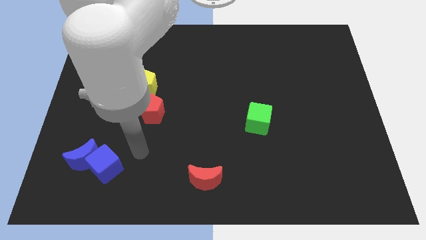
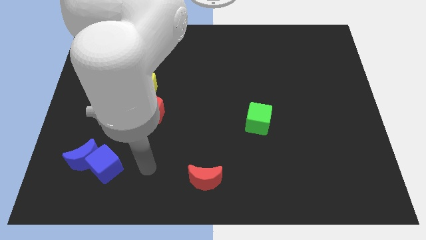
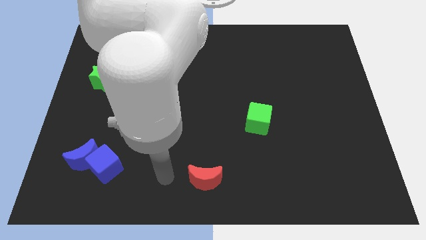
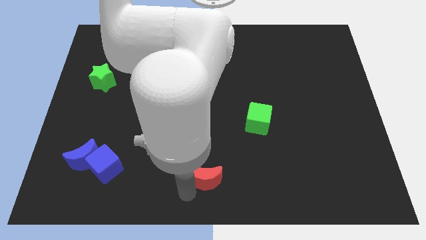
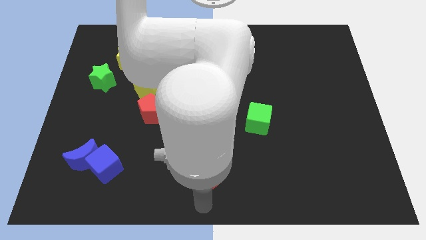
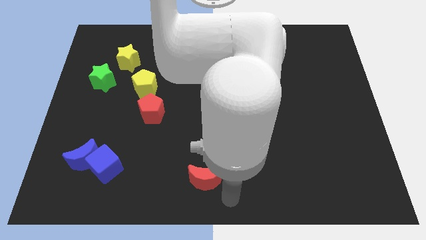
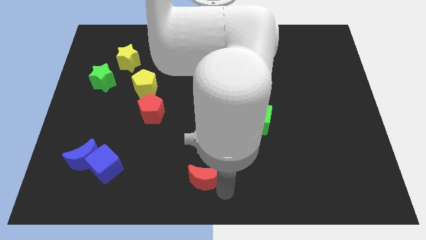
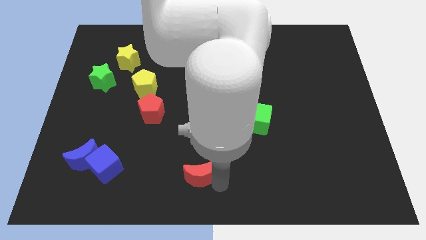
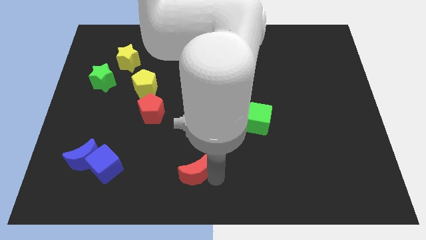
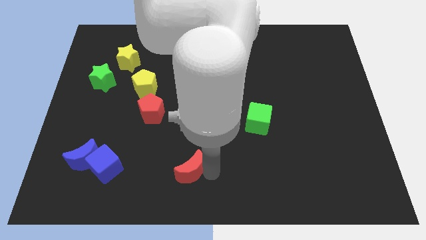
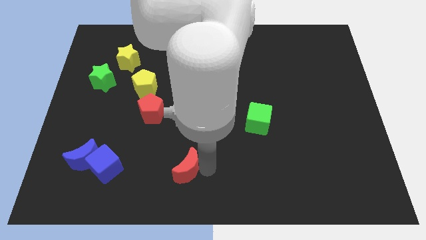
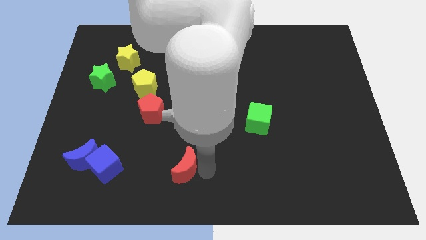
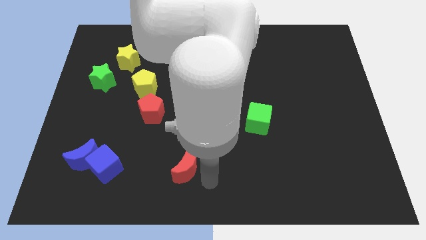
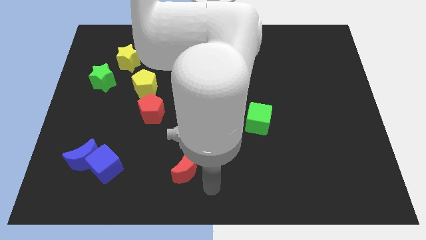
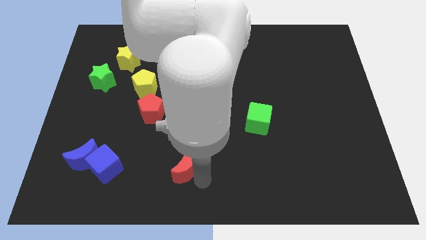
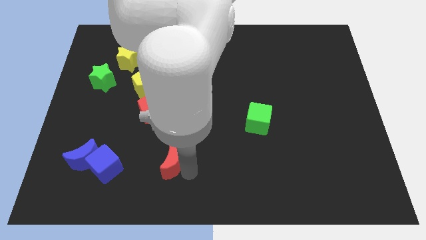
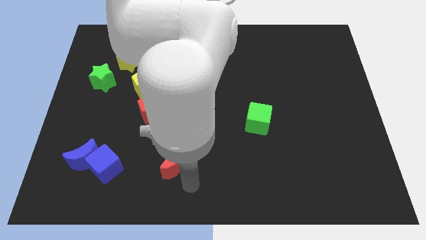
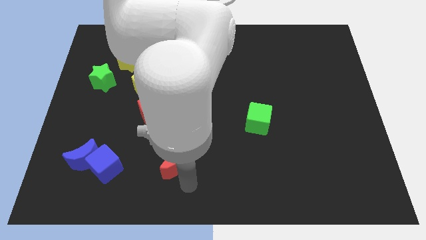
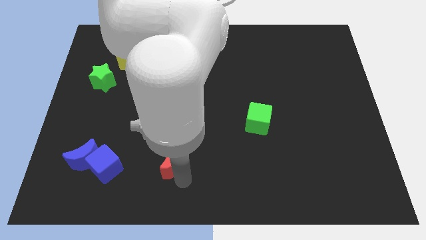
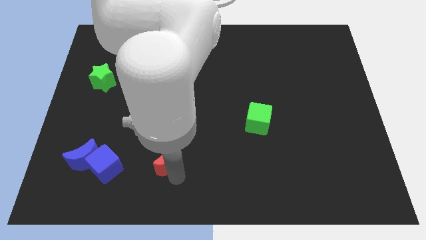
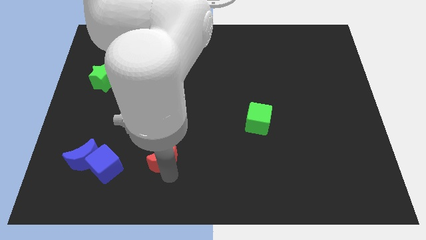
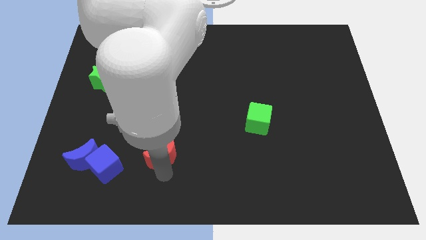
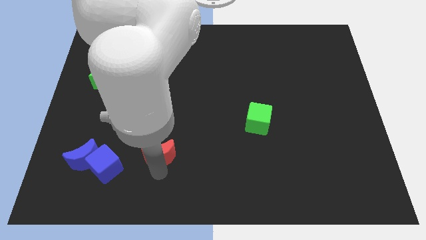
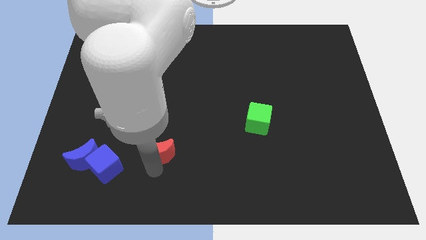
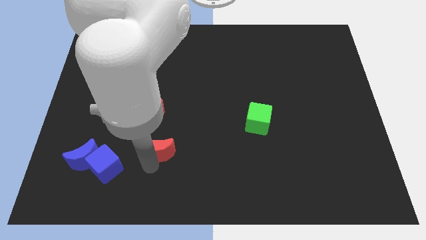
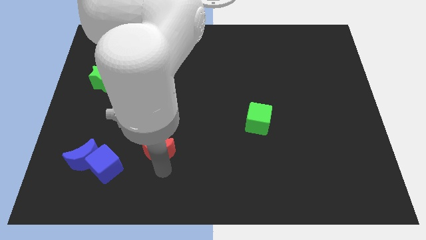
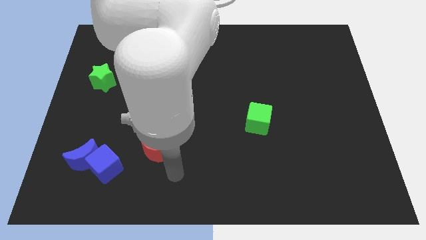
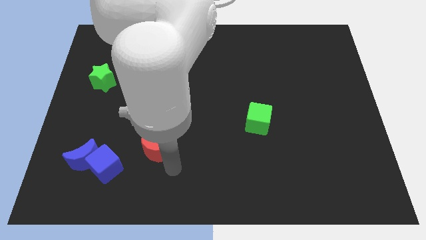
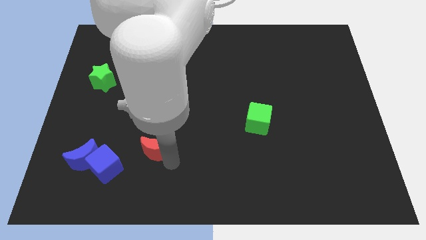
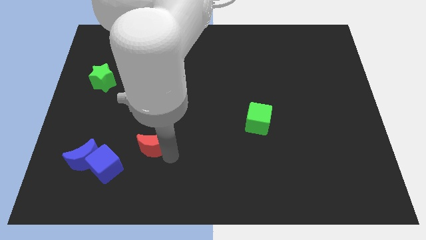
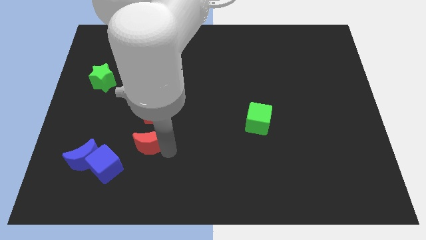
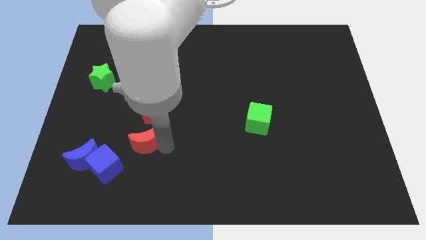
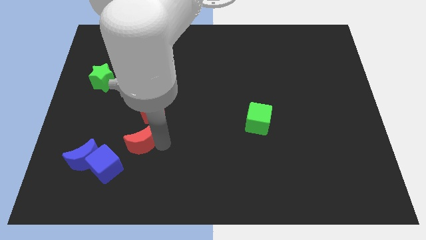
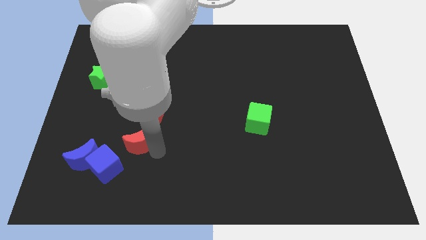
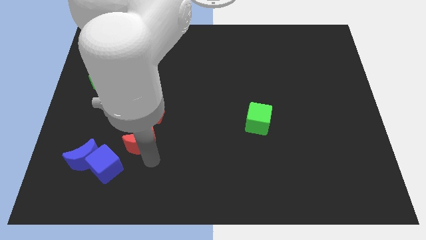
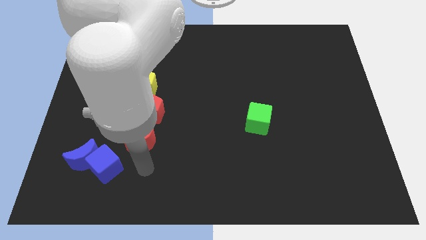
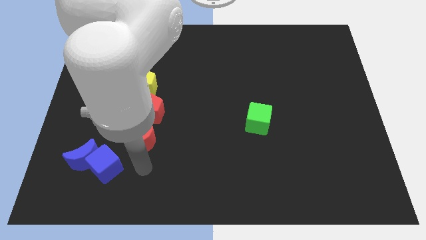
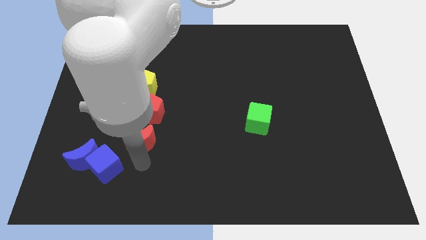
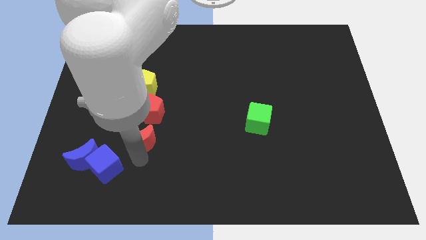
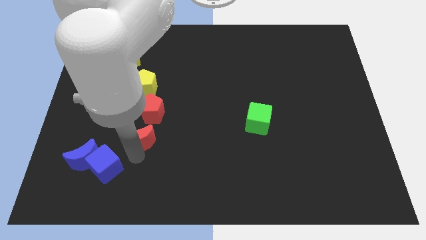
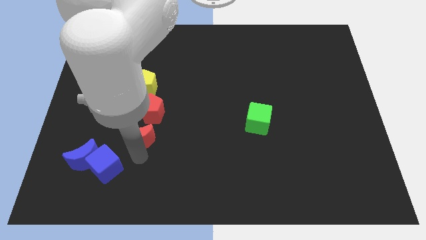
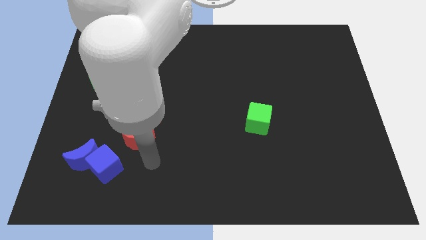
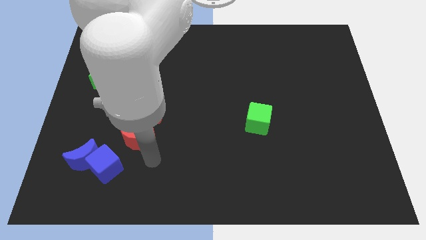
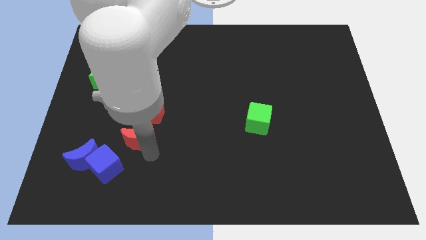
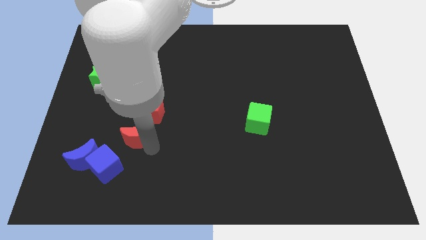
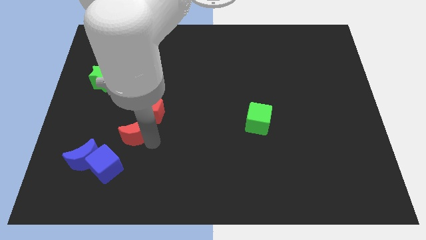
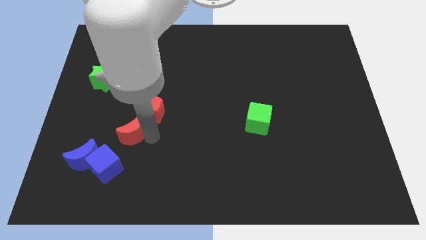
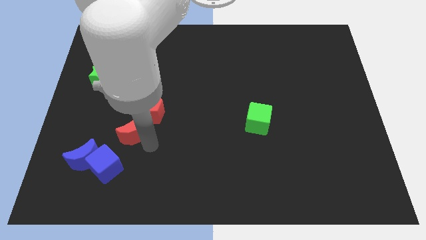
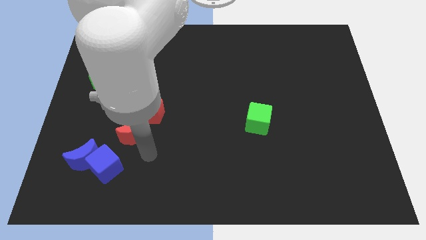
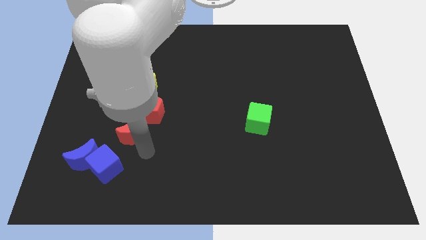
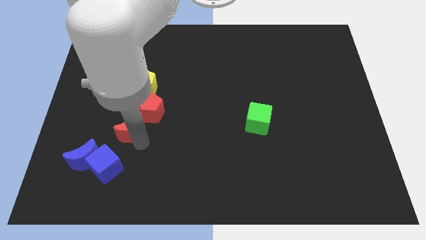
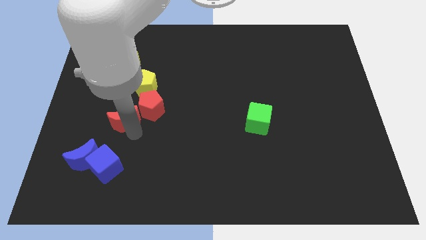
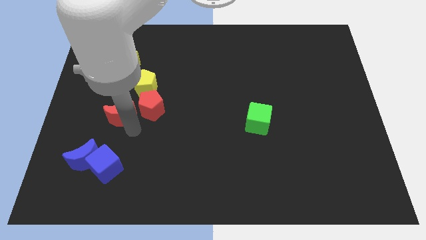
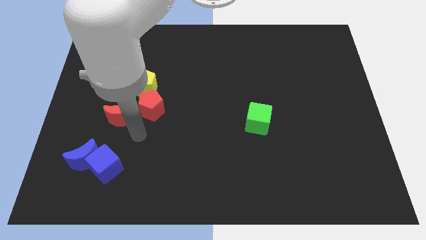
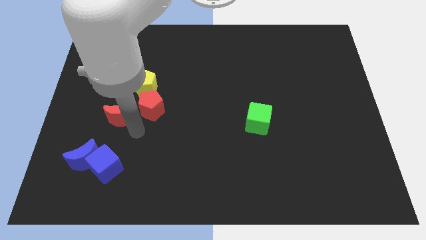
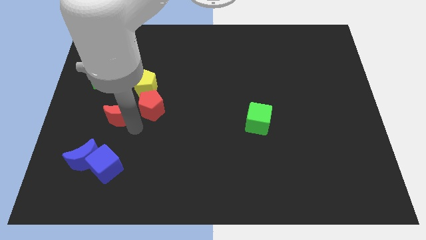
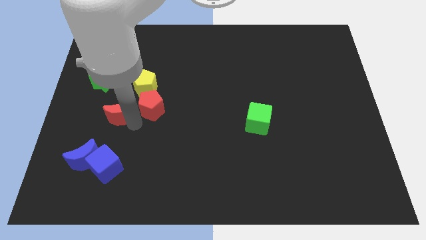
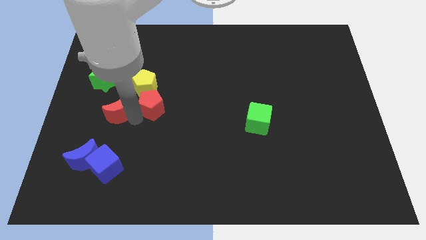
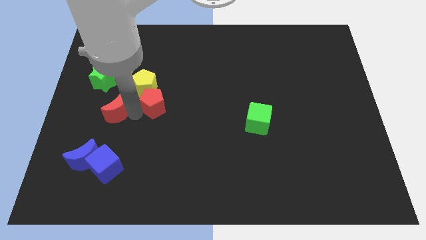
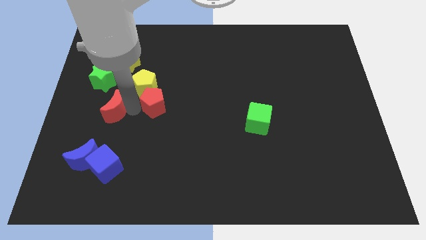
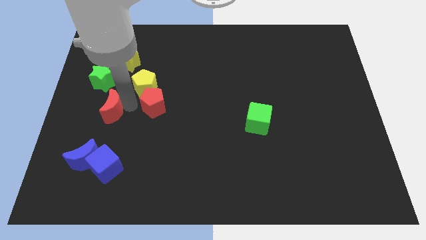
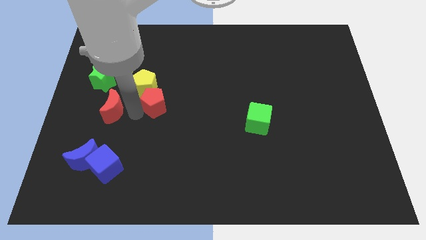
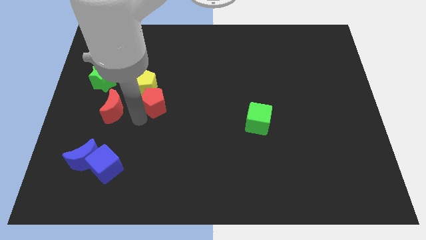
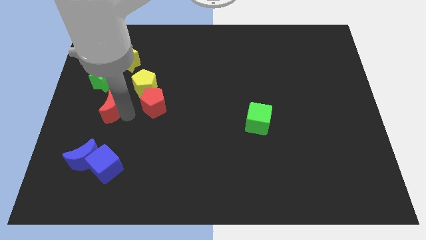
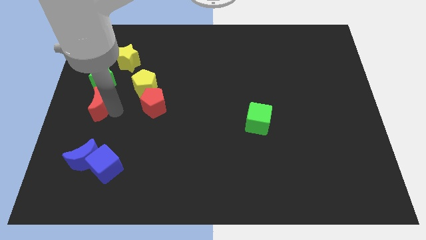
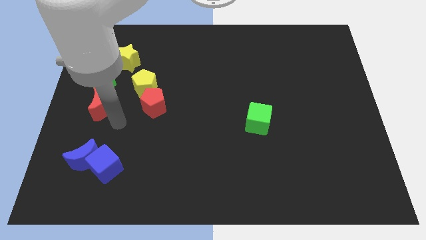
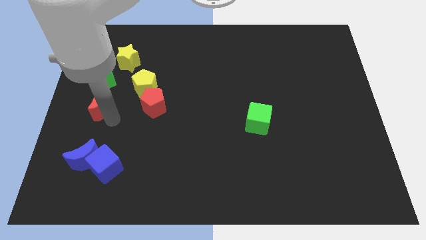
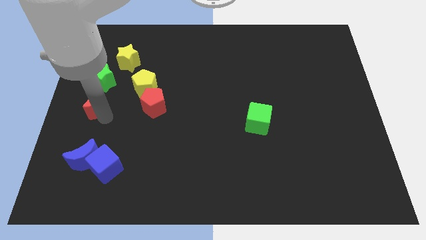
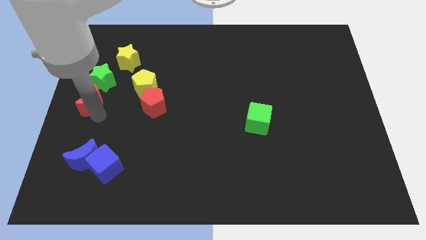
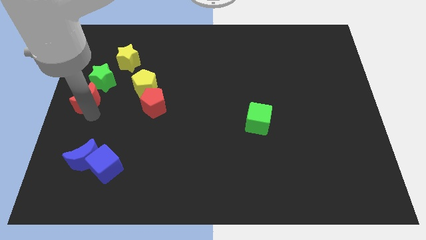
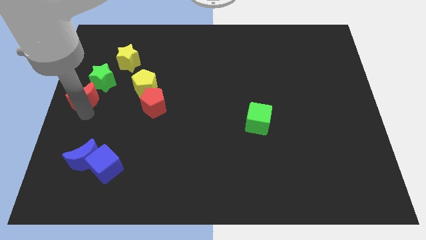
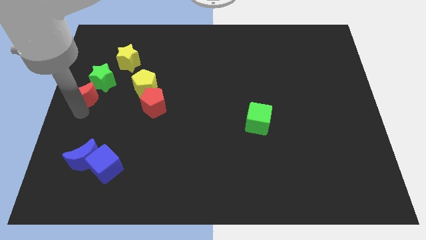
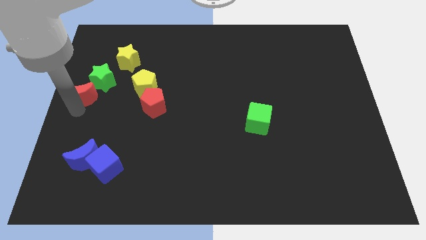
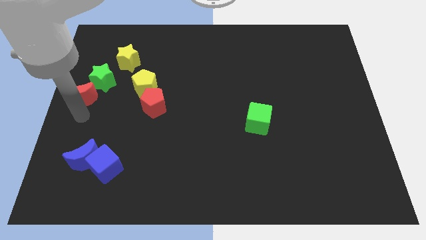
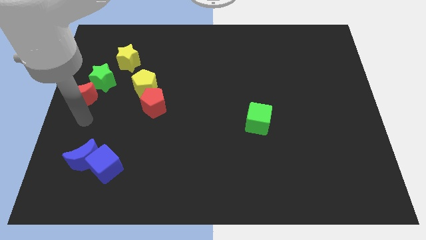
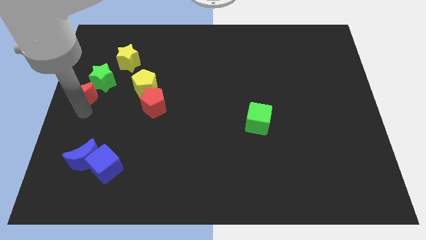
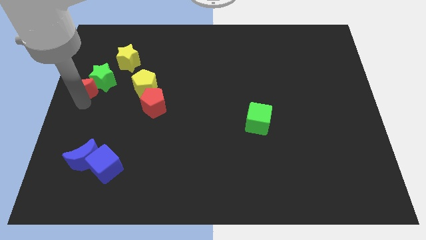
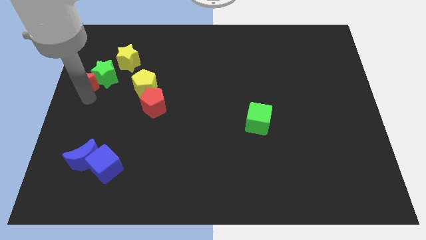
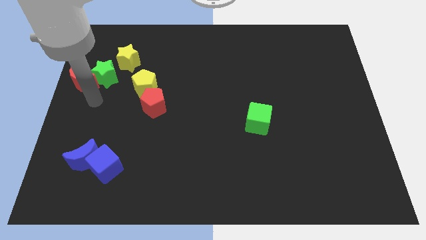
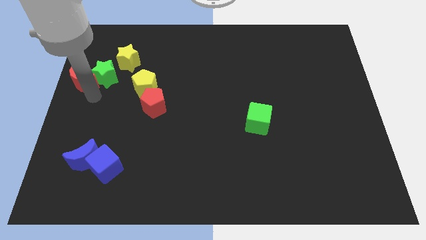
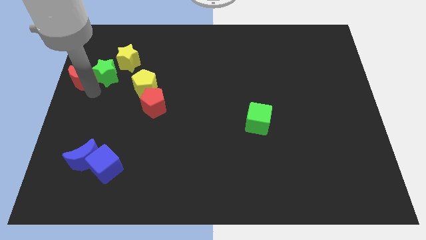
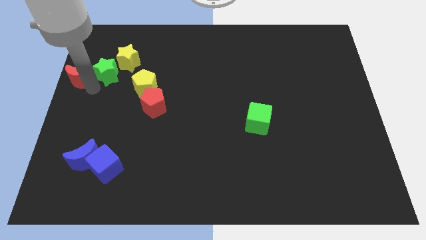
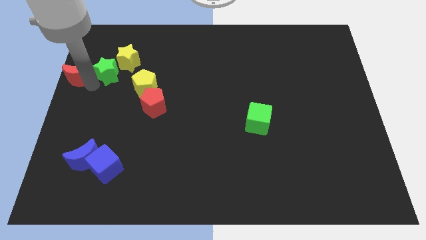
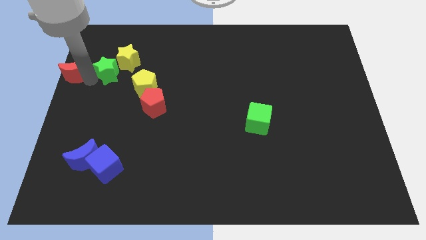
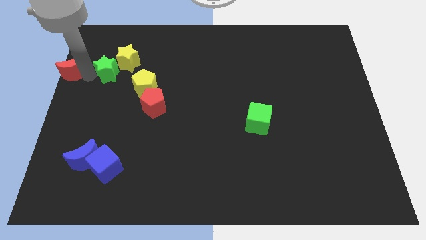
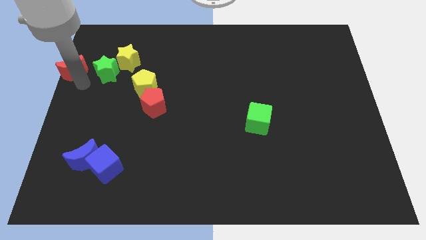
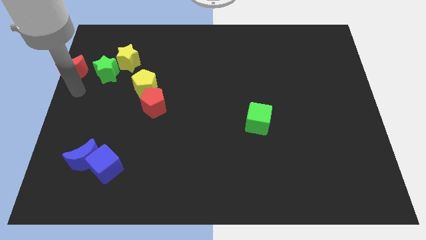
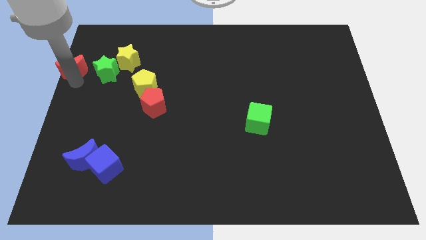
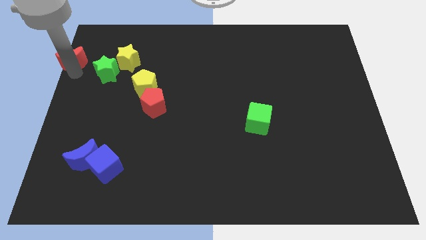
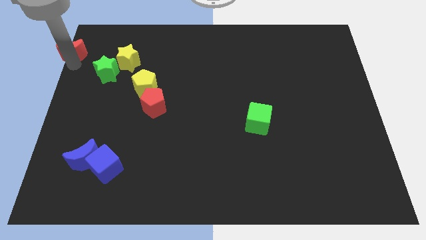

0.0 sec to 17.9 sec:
put the red moon to the top left corner
